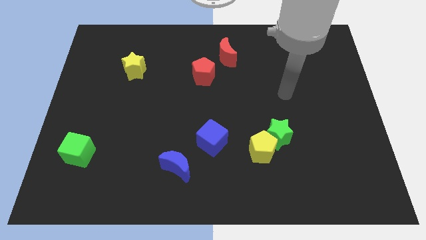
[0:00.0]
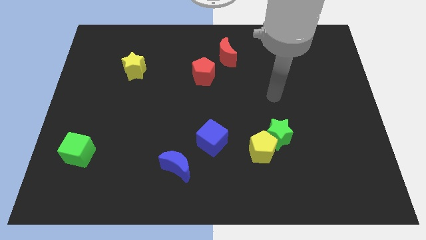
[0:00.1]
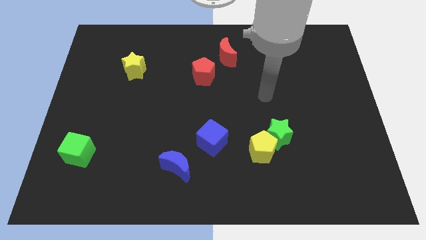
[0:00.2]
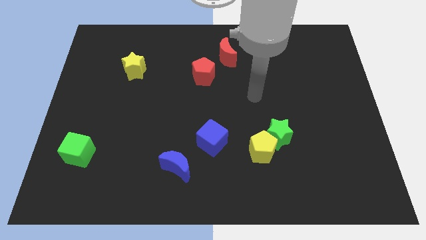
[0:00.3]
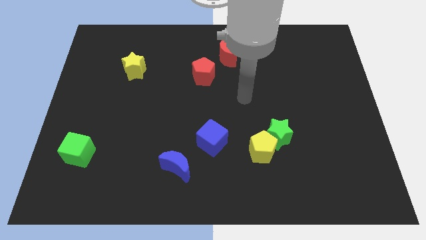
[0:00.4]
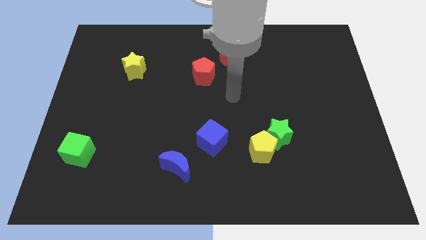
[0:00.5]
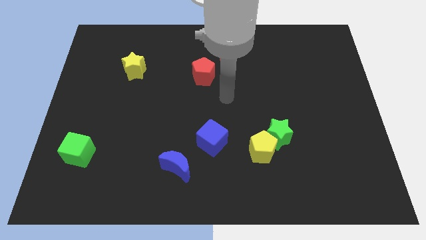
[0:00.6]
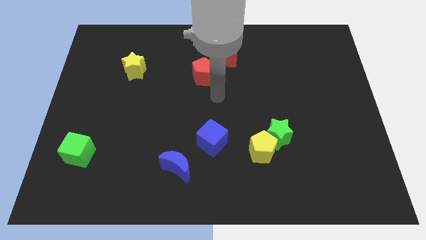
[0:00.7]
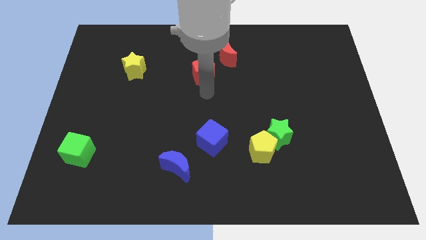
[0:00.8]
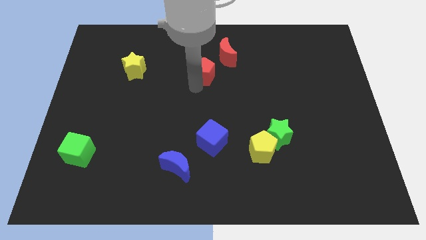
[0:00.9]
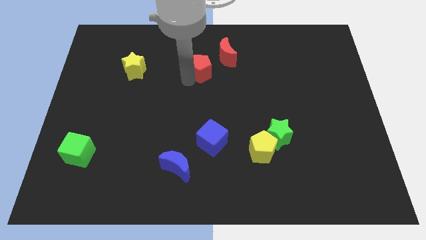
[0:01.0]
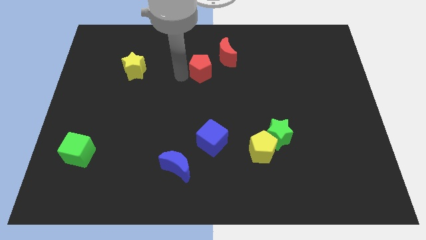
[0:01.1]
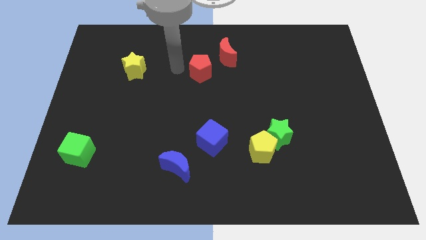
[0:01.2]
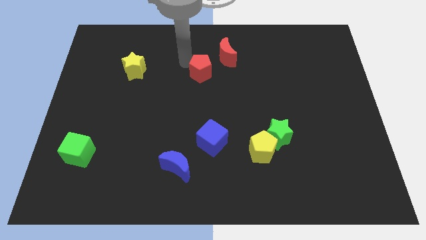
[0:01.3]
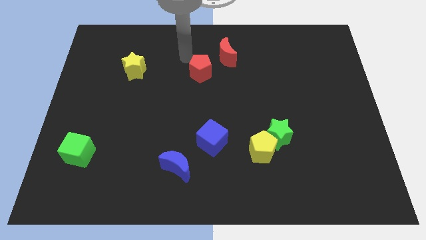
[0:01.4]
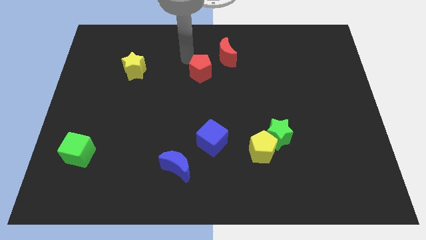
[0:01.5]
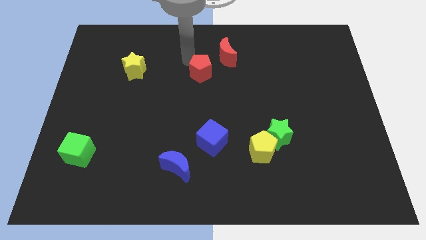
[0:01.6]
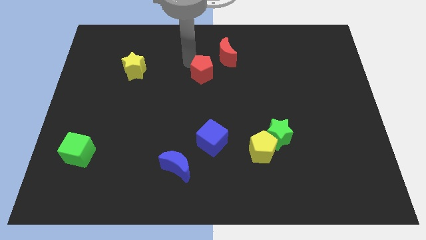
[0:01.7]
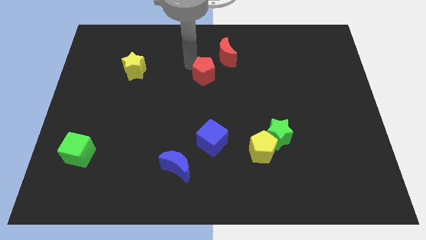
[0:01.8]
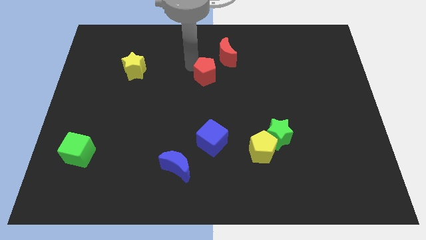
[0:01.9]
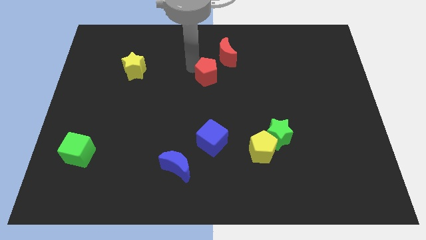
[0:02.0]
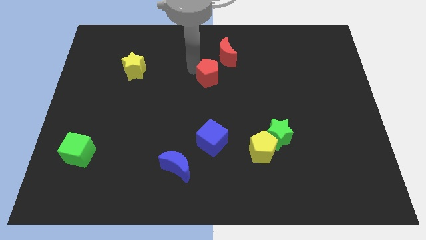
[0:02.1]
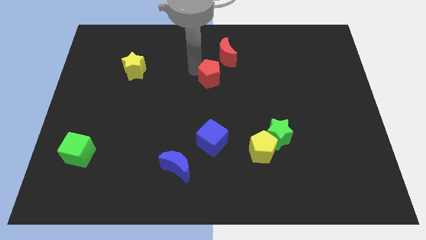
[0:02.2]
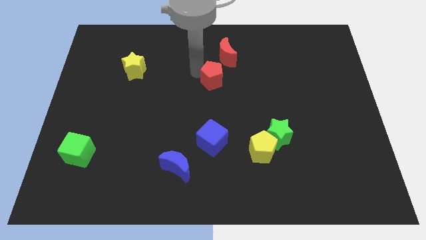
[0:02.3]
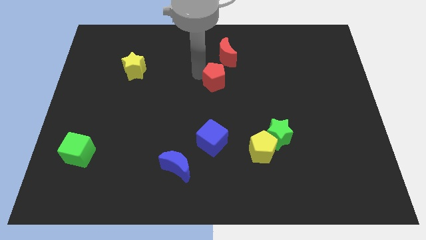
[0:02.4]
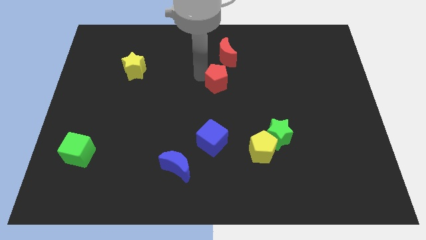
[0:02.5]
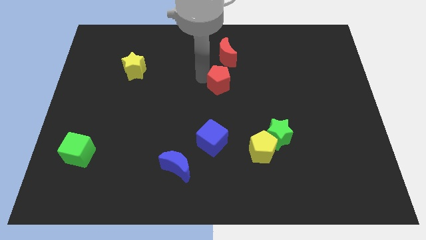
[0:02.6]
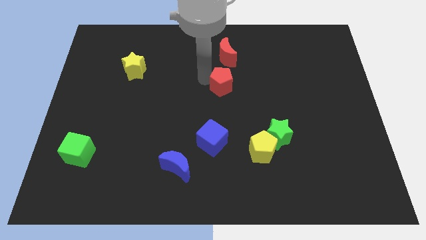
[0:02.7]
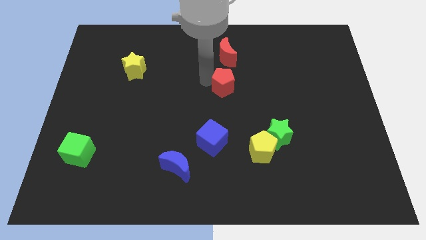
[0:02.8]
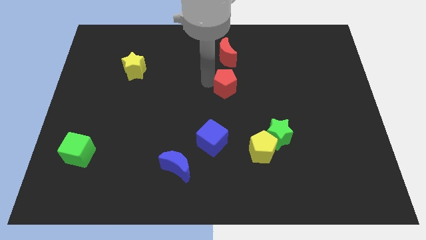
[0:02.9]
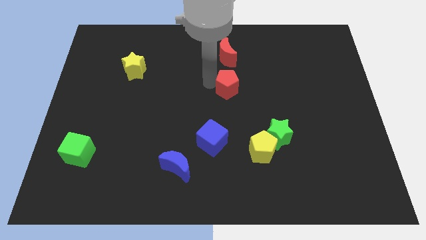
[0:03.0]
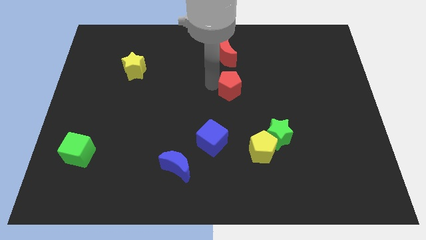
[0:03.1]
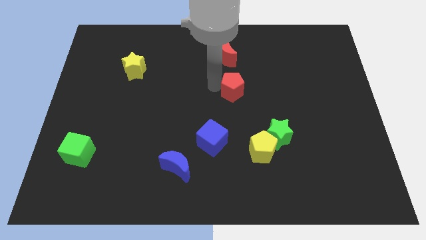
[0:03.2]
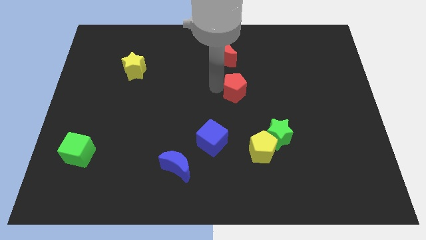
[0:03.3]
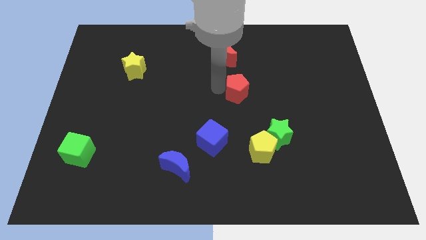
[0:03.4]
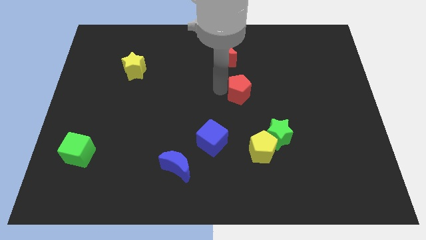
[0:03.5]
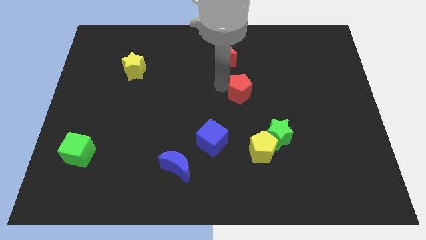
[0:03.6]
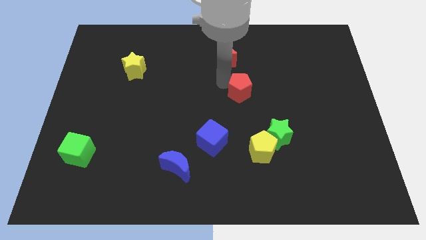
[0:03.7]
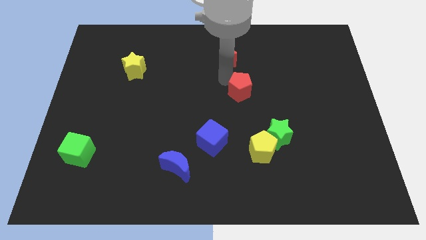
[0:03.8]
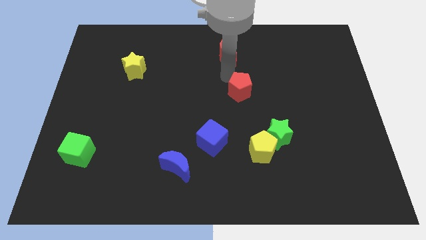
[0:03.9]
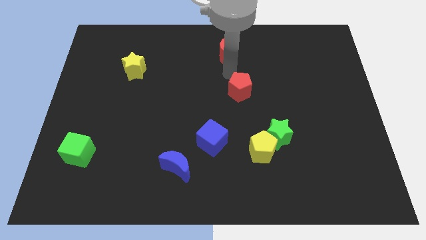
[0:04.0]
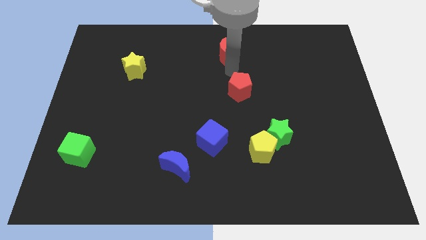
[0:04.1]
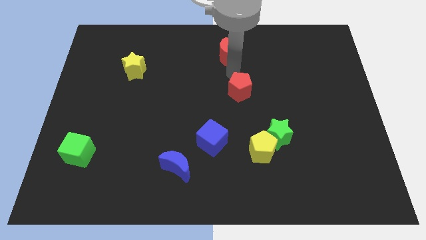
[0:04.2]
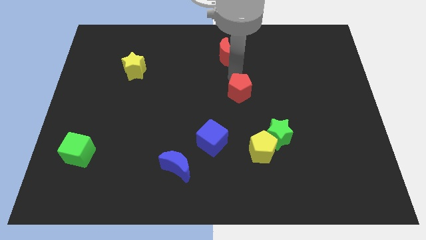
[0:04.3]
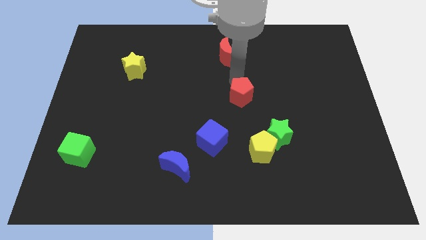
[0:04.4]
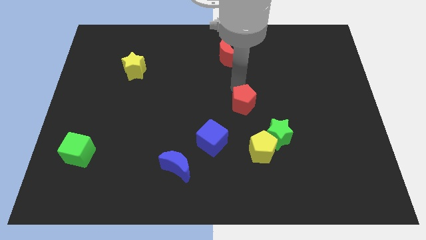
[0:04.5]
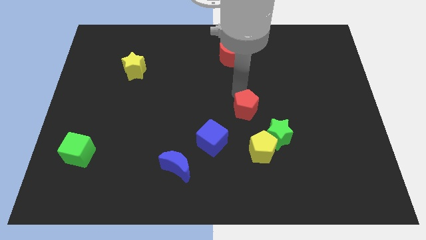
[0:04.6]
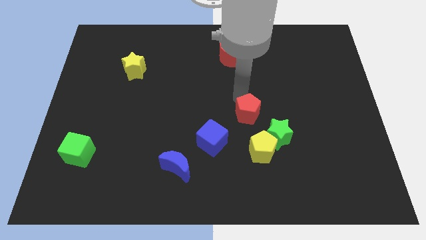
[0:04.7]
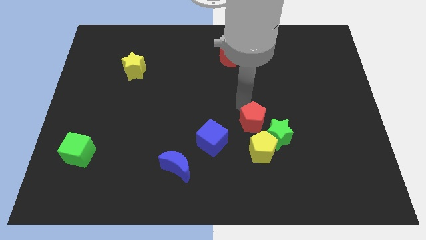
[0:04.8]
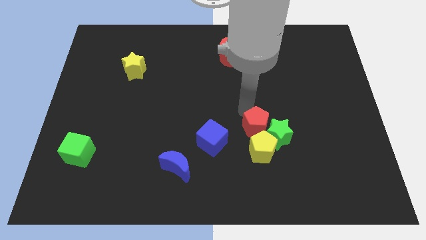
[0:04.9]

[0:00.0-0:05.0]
put the red pentagon close to the green star

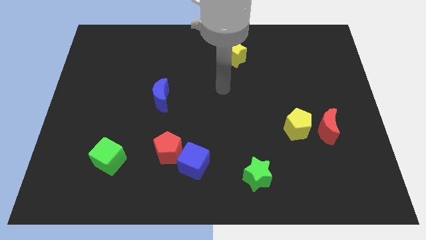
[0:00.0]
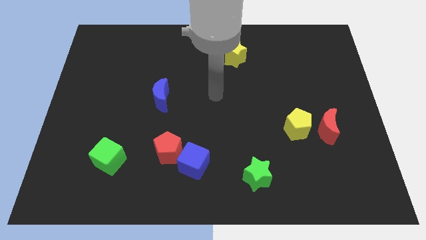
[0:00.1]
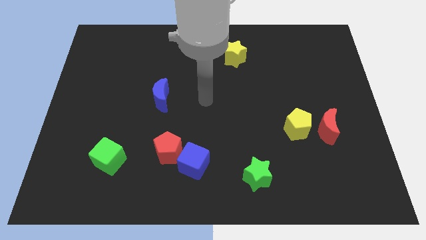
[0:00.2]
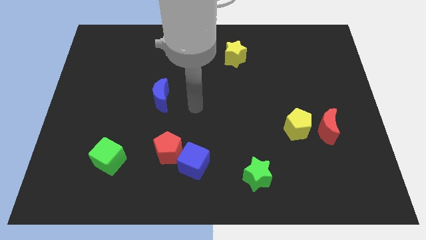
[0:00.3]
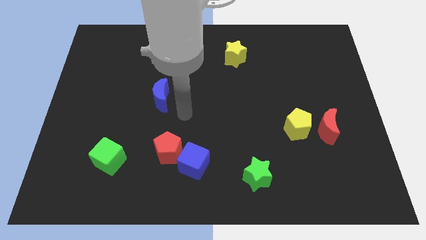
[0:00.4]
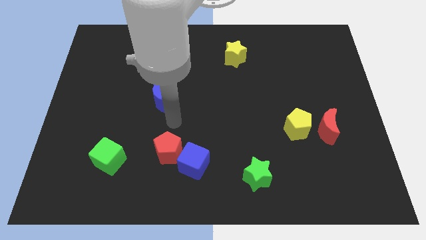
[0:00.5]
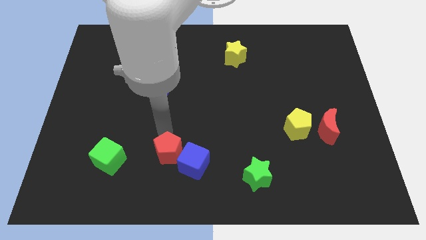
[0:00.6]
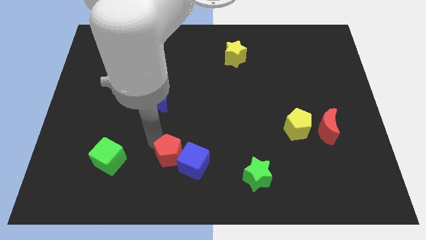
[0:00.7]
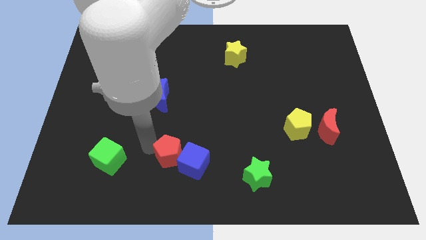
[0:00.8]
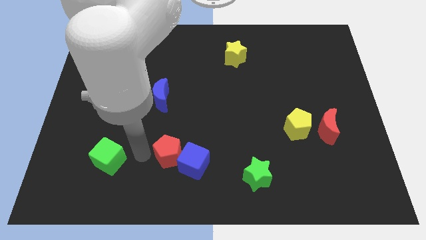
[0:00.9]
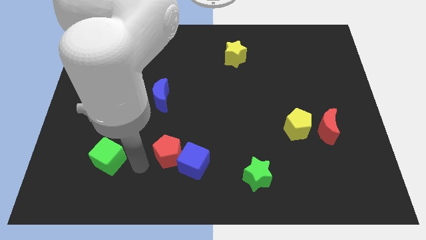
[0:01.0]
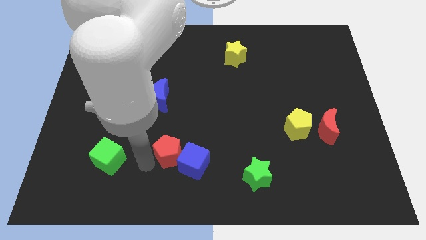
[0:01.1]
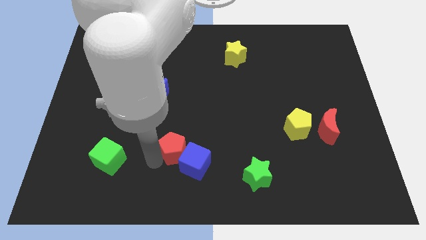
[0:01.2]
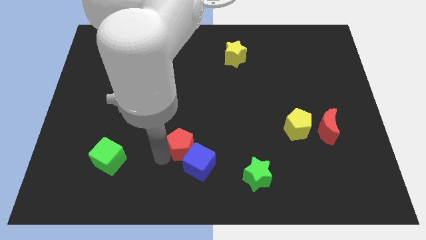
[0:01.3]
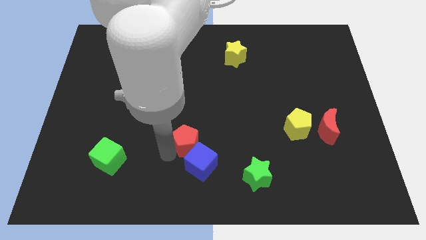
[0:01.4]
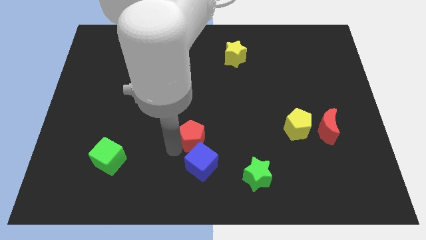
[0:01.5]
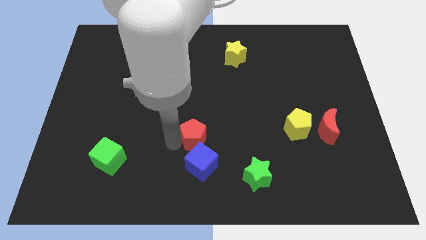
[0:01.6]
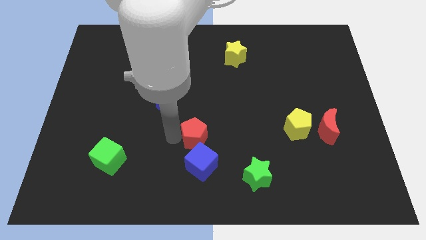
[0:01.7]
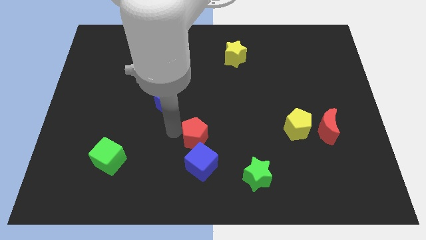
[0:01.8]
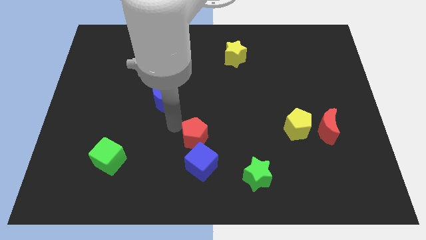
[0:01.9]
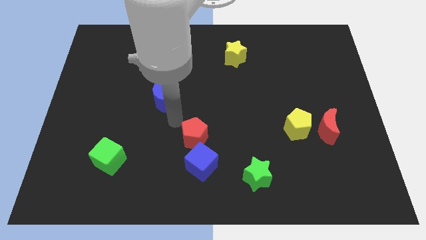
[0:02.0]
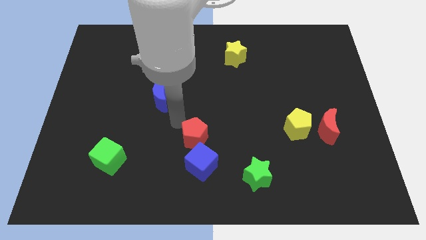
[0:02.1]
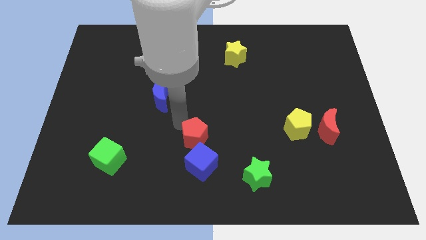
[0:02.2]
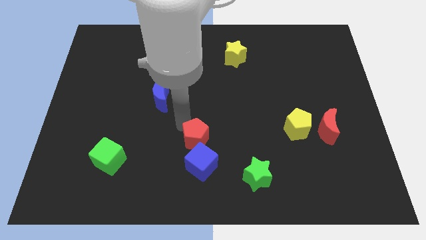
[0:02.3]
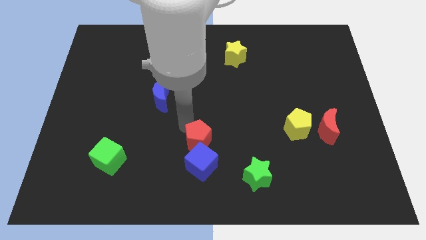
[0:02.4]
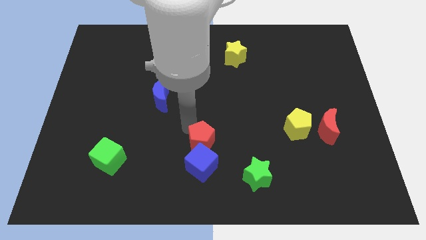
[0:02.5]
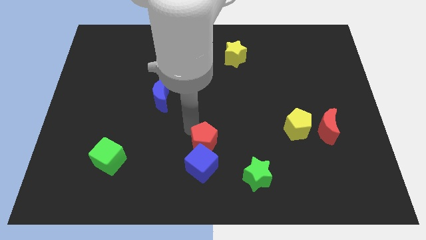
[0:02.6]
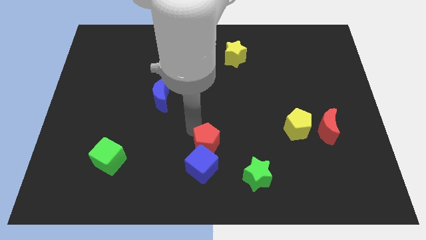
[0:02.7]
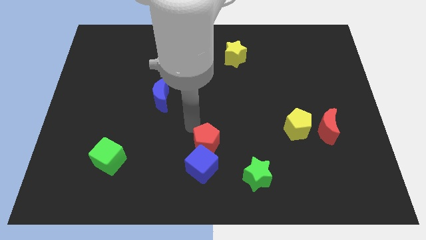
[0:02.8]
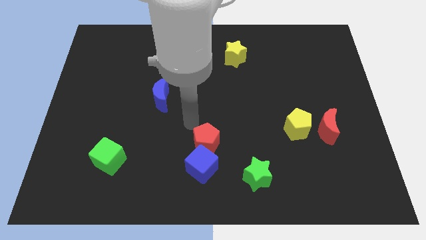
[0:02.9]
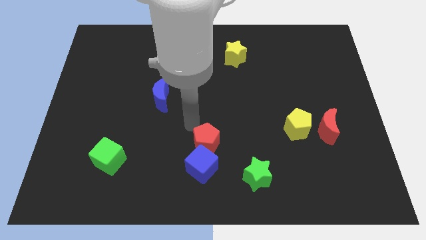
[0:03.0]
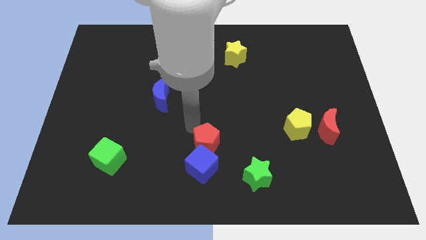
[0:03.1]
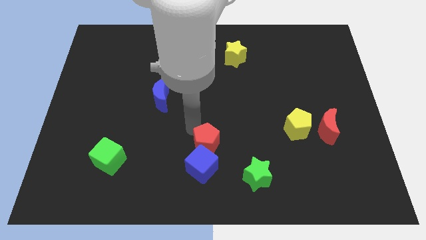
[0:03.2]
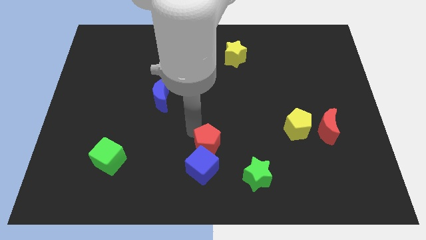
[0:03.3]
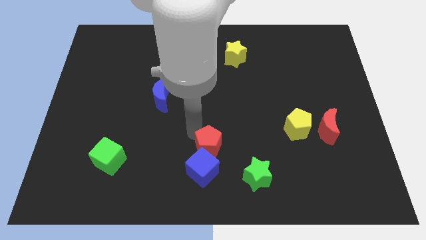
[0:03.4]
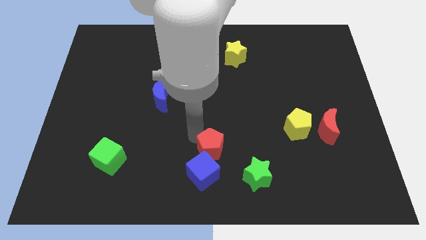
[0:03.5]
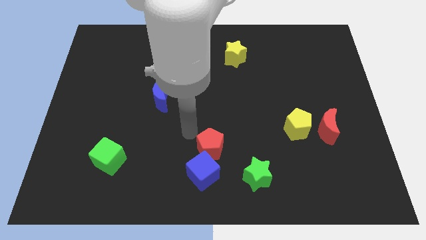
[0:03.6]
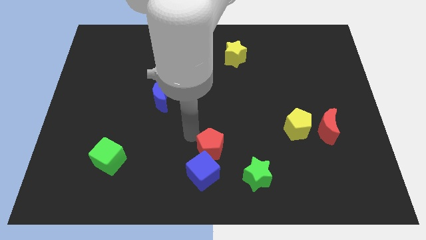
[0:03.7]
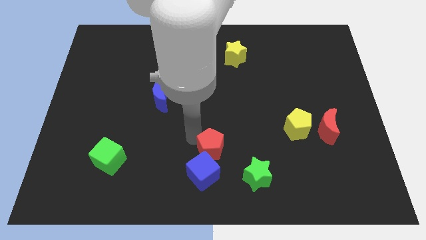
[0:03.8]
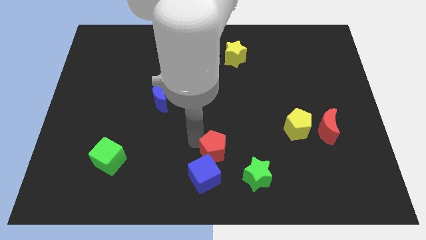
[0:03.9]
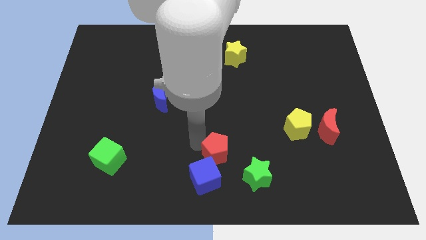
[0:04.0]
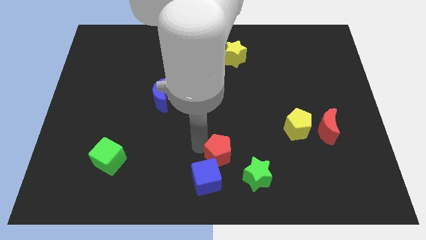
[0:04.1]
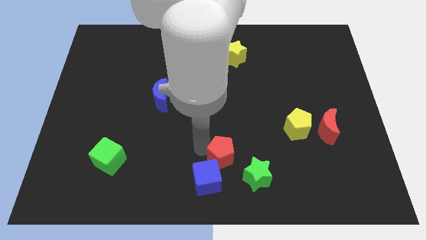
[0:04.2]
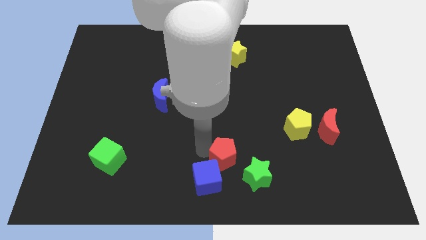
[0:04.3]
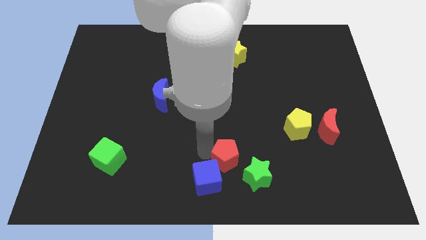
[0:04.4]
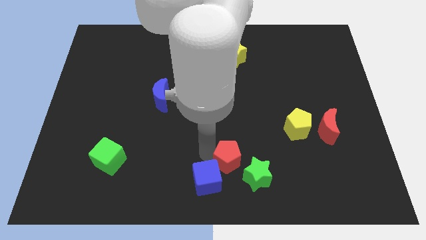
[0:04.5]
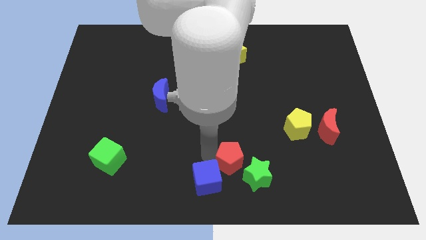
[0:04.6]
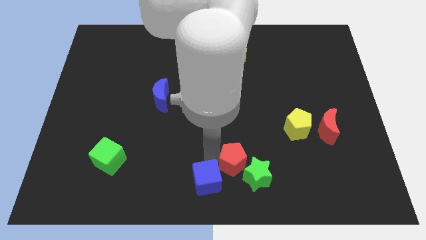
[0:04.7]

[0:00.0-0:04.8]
push the red pentagon next to the green star
